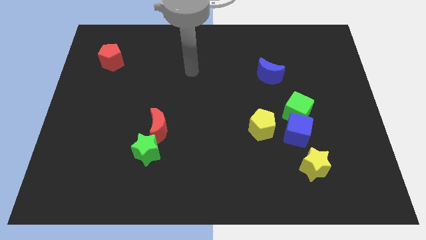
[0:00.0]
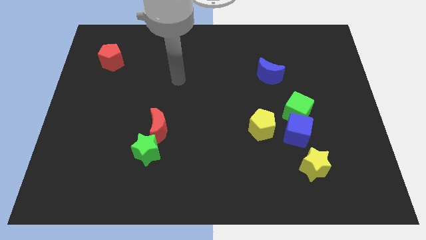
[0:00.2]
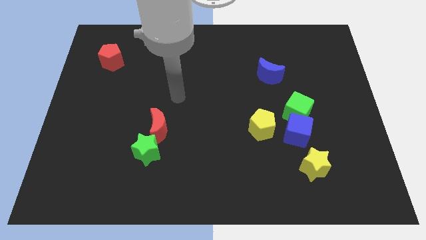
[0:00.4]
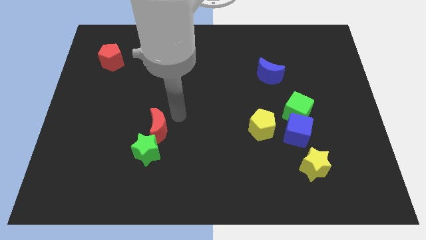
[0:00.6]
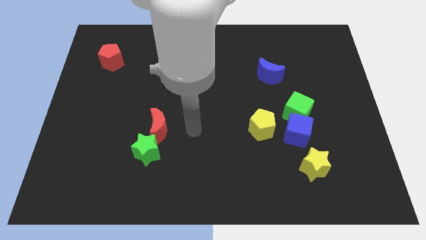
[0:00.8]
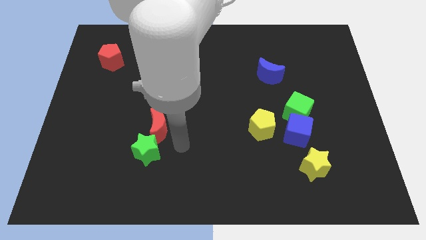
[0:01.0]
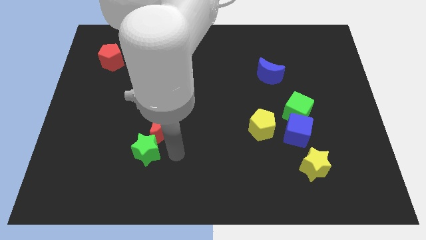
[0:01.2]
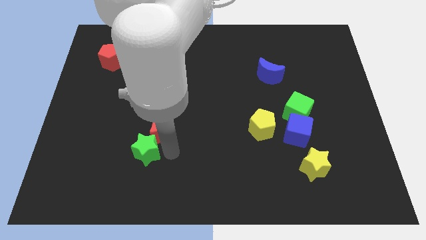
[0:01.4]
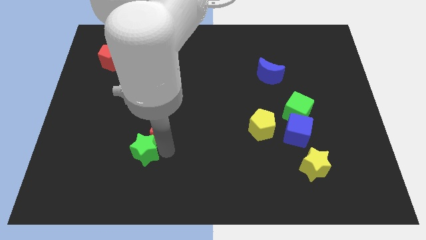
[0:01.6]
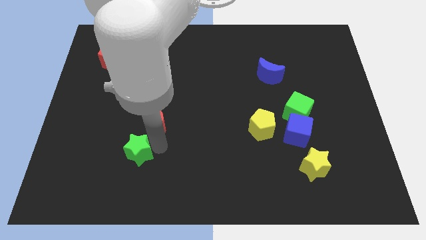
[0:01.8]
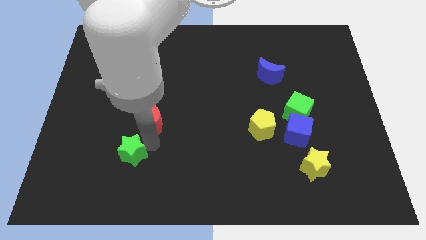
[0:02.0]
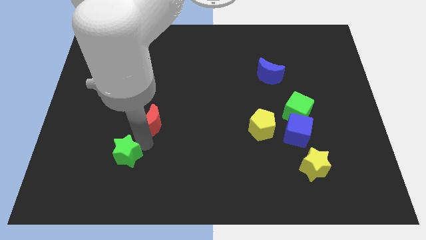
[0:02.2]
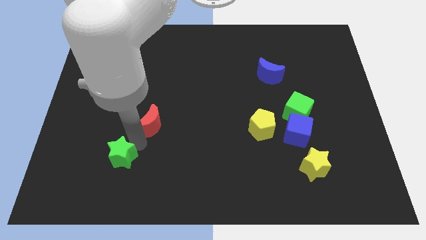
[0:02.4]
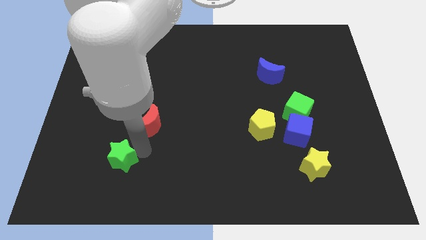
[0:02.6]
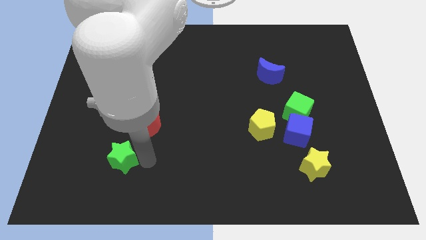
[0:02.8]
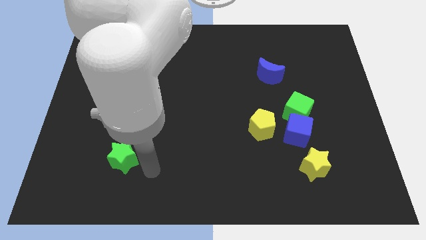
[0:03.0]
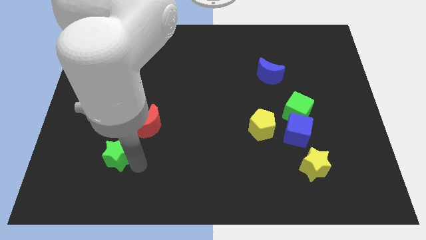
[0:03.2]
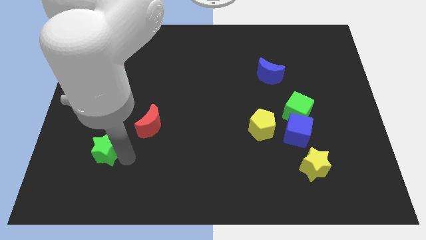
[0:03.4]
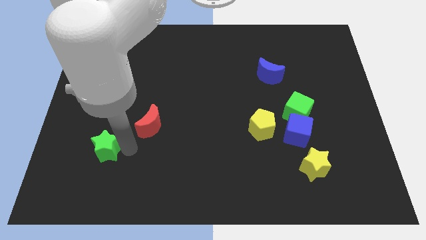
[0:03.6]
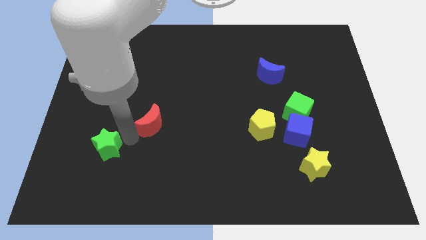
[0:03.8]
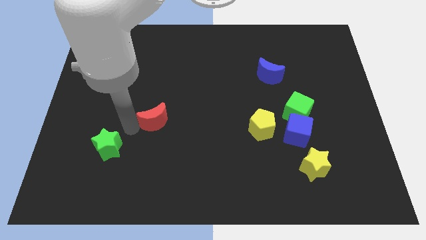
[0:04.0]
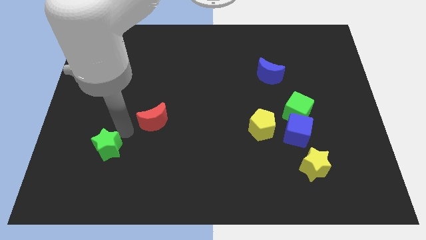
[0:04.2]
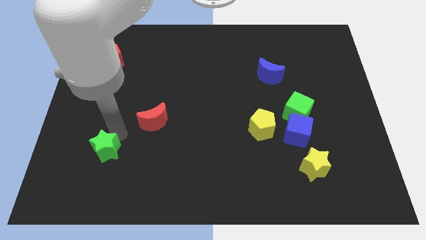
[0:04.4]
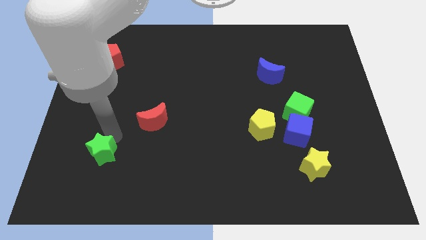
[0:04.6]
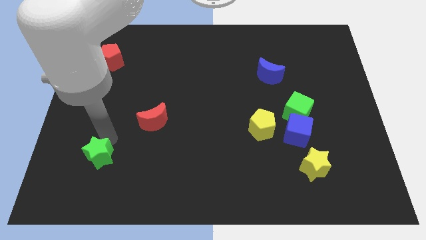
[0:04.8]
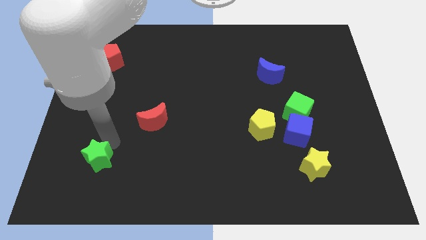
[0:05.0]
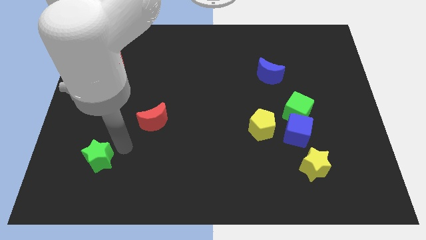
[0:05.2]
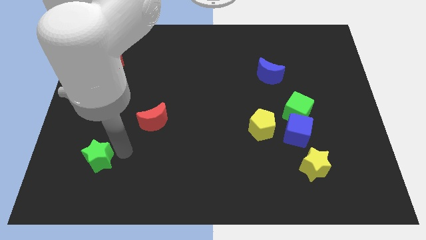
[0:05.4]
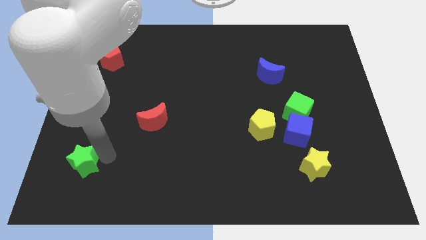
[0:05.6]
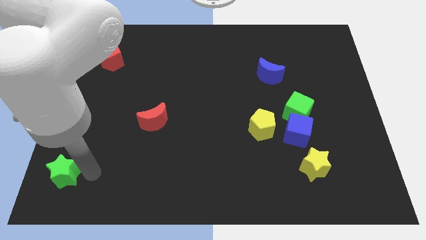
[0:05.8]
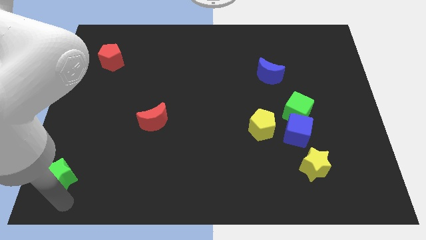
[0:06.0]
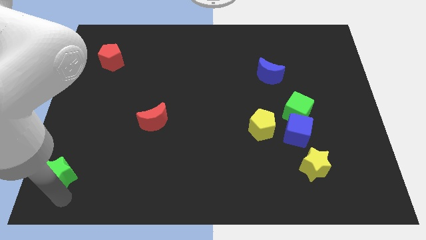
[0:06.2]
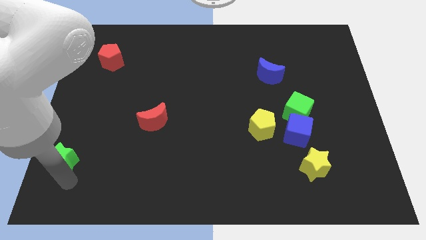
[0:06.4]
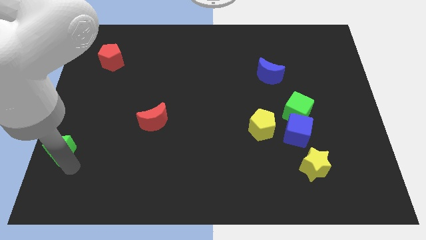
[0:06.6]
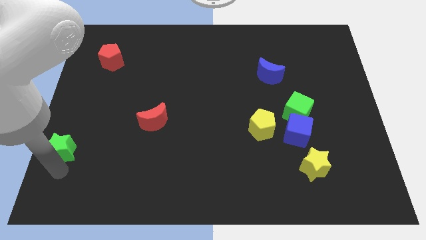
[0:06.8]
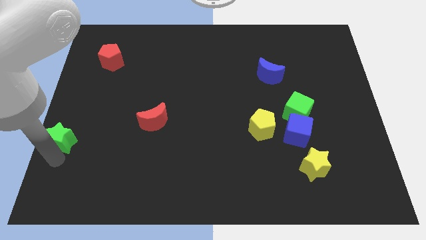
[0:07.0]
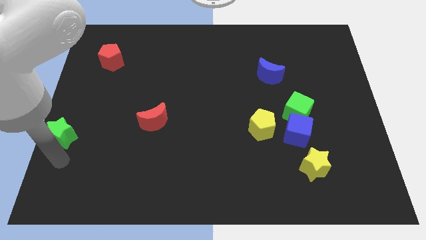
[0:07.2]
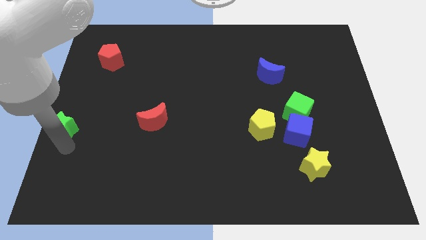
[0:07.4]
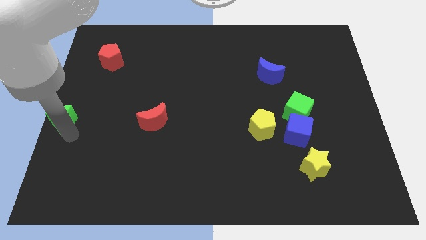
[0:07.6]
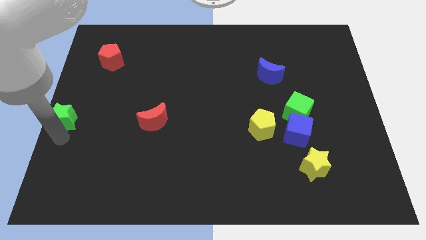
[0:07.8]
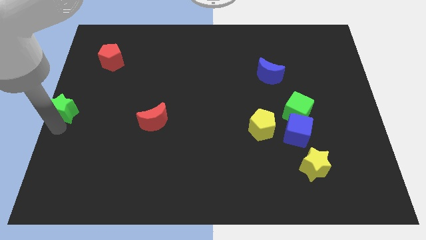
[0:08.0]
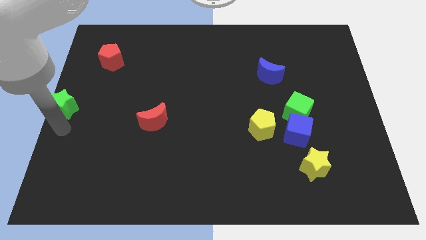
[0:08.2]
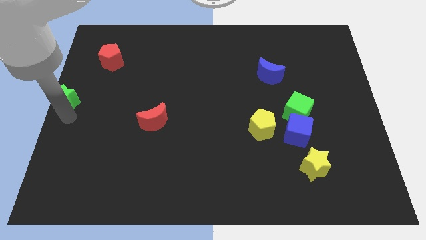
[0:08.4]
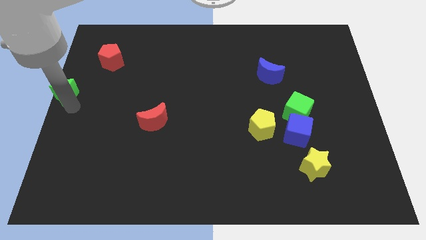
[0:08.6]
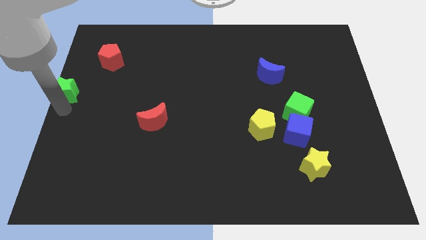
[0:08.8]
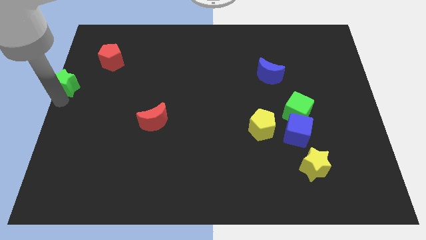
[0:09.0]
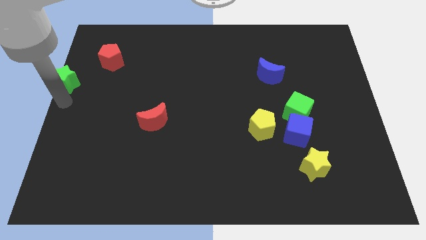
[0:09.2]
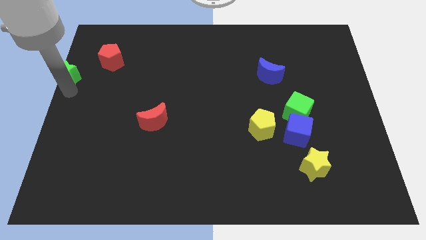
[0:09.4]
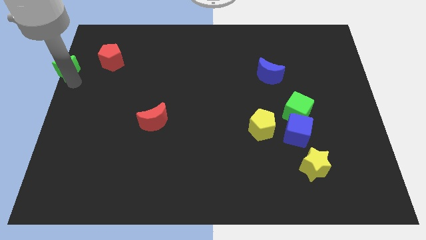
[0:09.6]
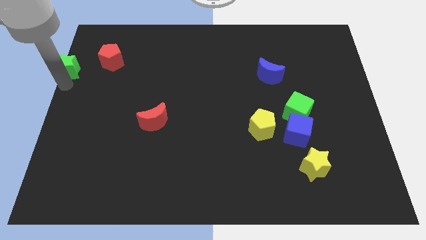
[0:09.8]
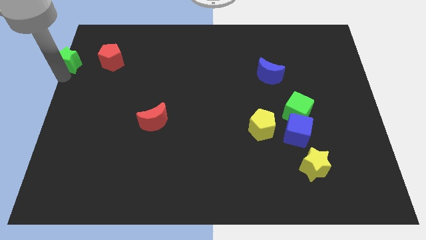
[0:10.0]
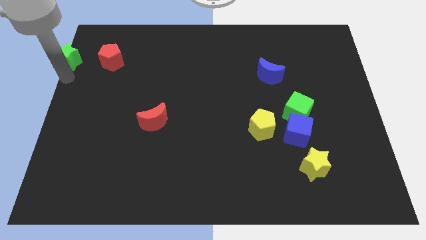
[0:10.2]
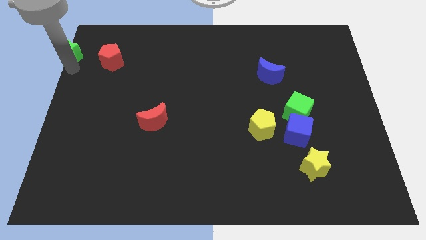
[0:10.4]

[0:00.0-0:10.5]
slide the green star to the upper left corner

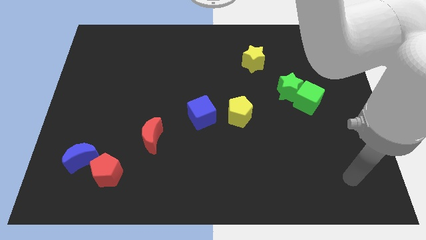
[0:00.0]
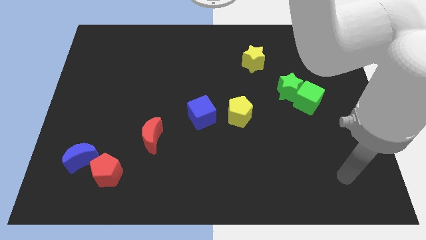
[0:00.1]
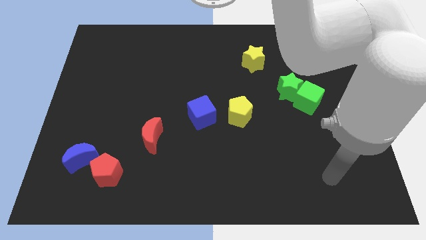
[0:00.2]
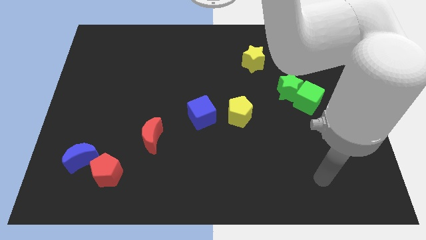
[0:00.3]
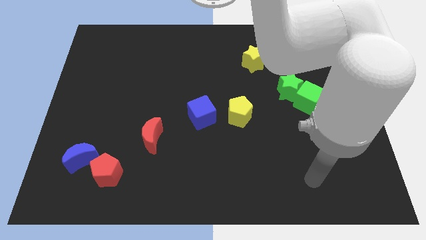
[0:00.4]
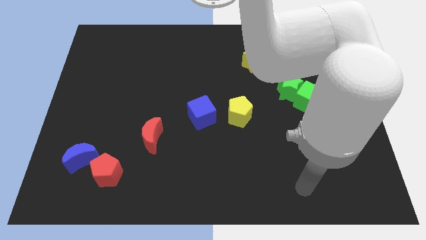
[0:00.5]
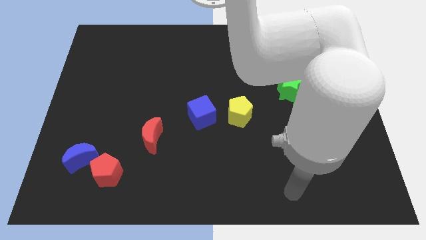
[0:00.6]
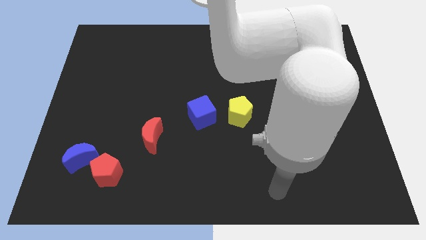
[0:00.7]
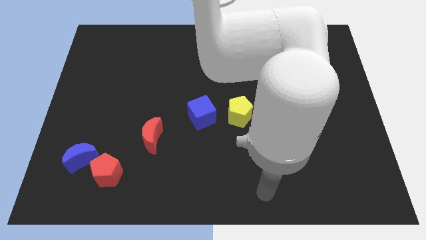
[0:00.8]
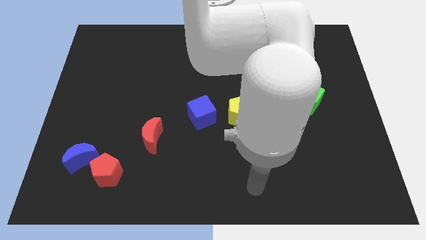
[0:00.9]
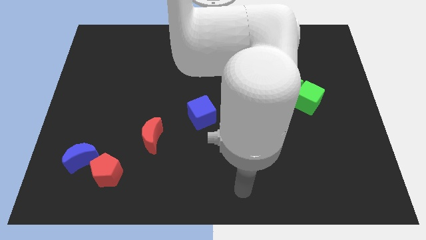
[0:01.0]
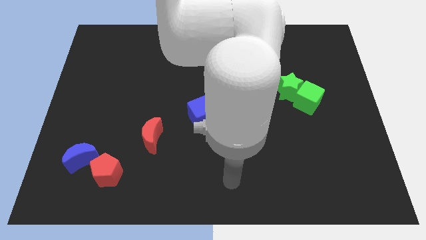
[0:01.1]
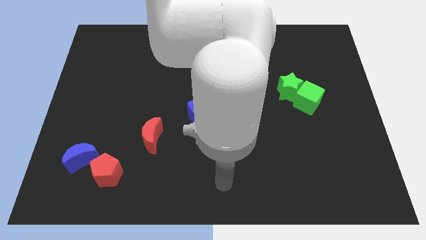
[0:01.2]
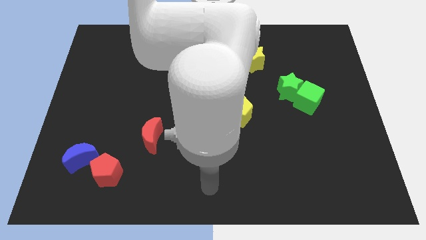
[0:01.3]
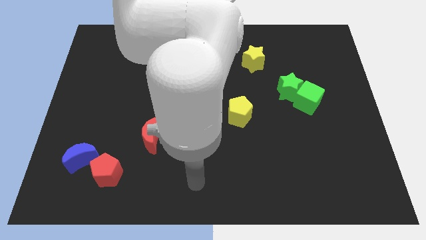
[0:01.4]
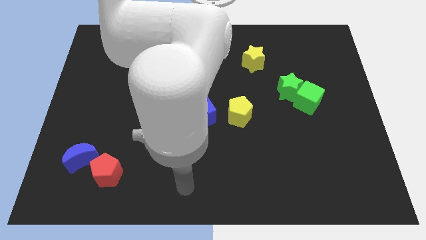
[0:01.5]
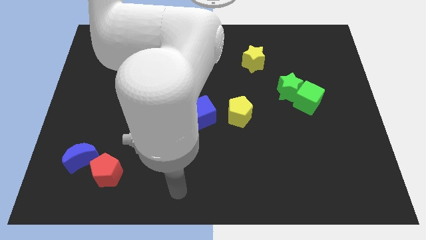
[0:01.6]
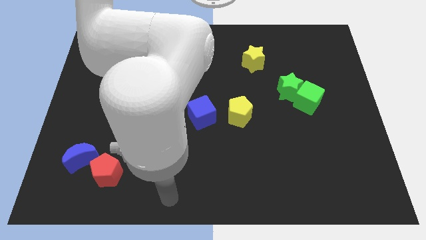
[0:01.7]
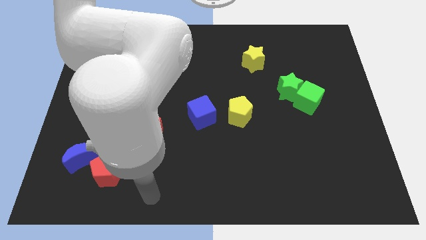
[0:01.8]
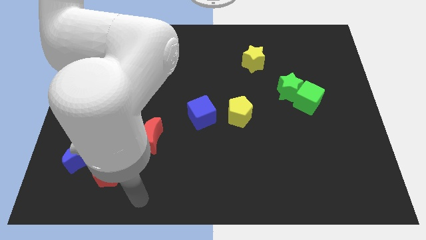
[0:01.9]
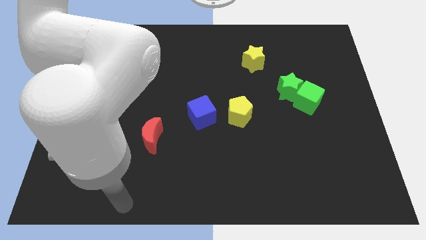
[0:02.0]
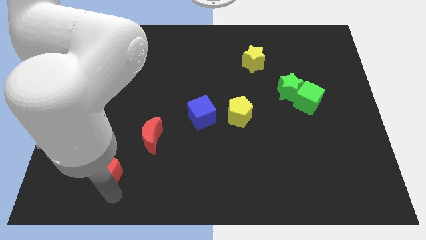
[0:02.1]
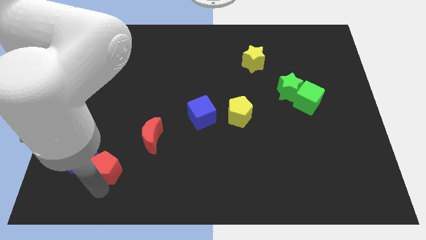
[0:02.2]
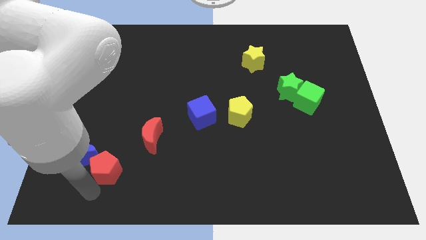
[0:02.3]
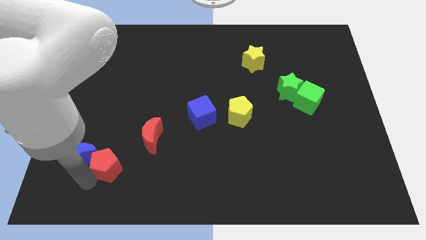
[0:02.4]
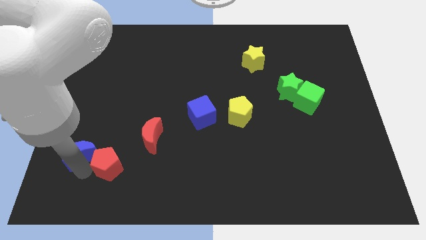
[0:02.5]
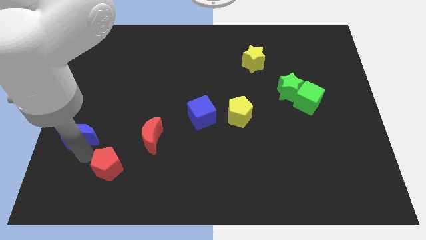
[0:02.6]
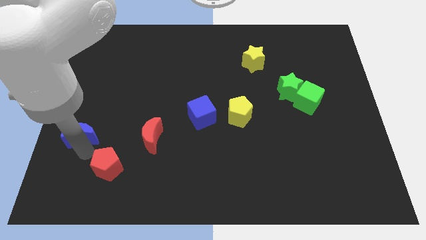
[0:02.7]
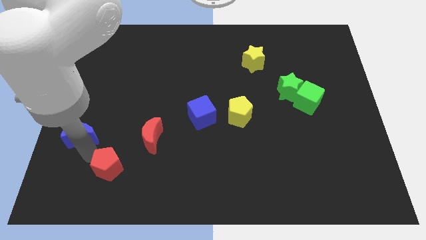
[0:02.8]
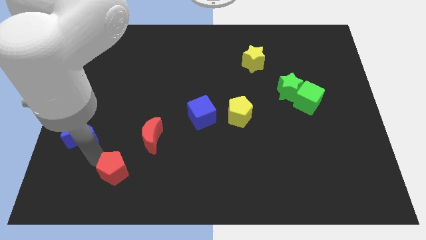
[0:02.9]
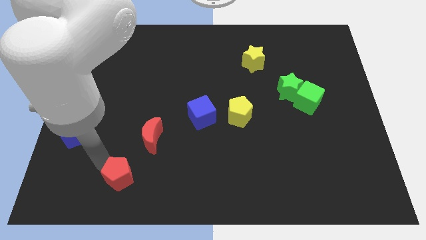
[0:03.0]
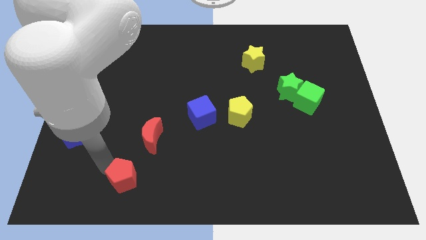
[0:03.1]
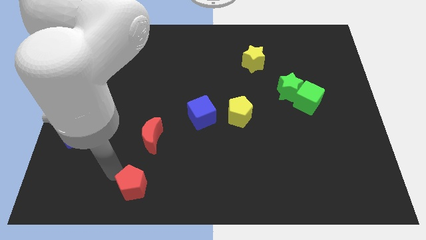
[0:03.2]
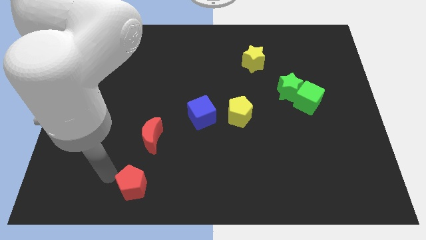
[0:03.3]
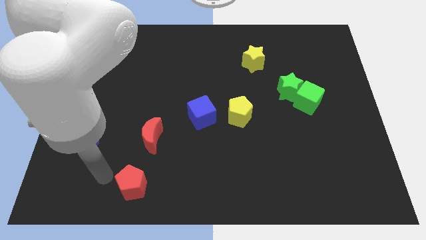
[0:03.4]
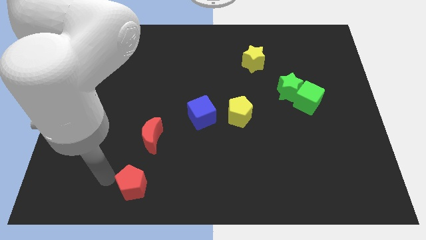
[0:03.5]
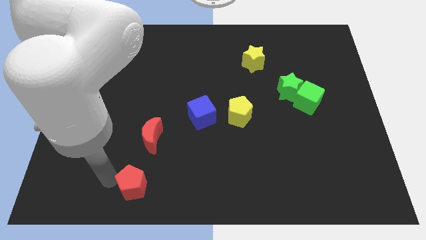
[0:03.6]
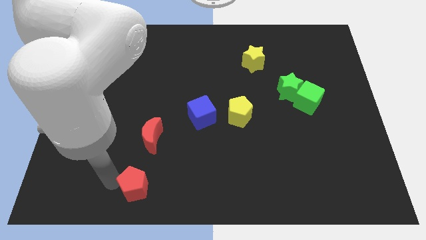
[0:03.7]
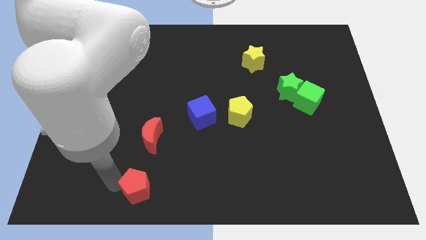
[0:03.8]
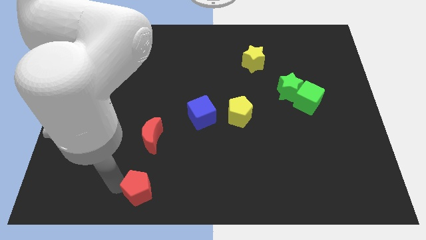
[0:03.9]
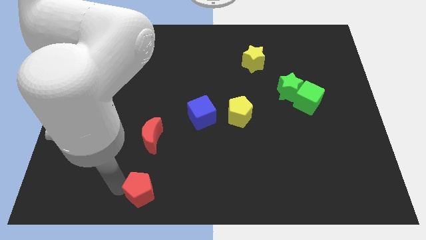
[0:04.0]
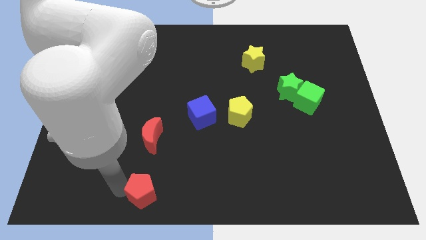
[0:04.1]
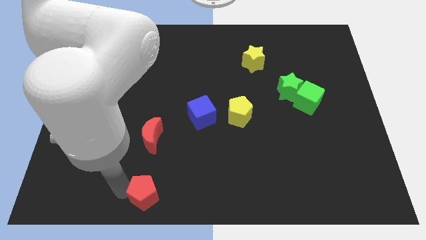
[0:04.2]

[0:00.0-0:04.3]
move the red pentagon to the bottom
